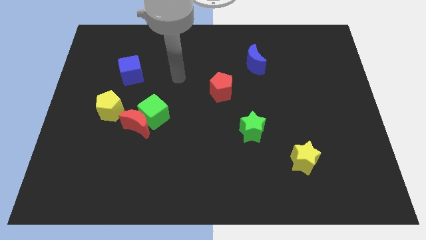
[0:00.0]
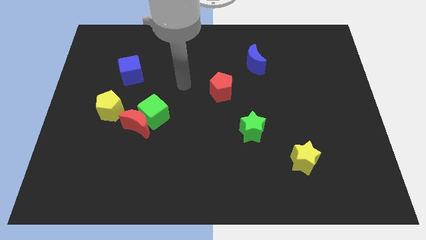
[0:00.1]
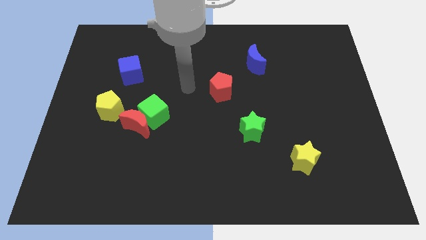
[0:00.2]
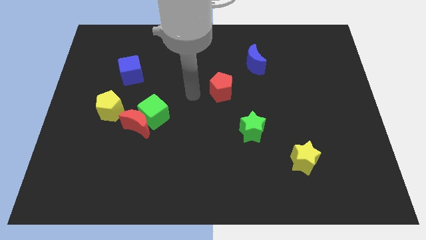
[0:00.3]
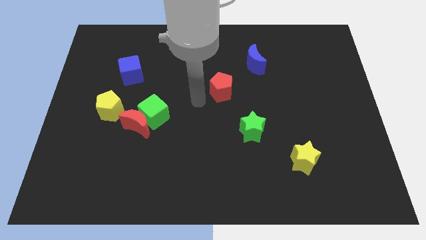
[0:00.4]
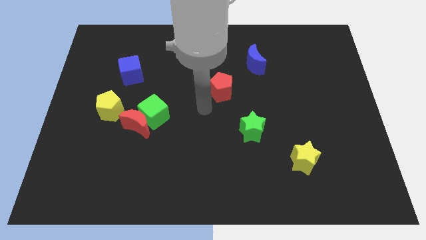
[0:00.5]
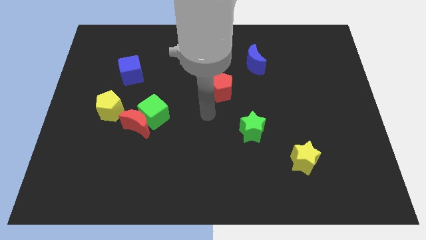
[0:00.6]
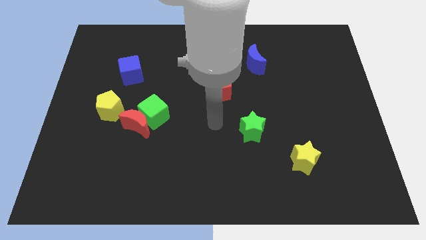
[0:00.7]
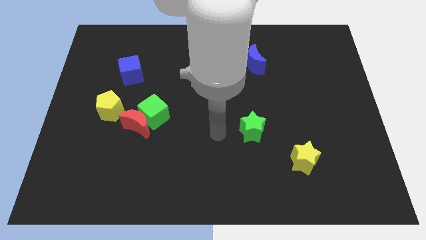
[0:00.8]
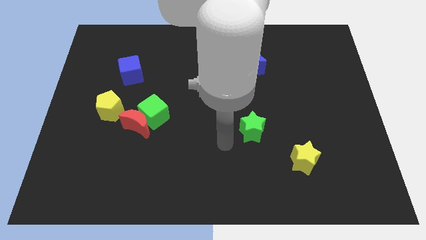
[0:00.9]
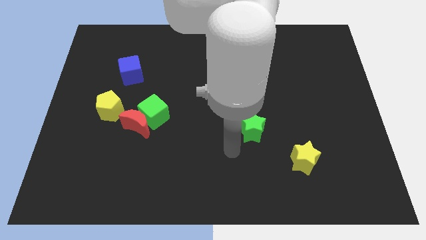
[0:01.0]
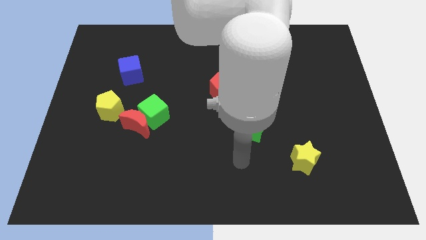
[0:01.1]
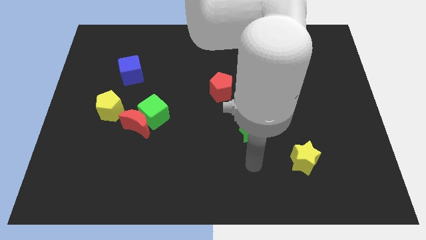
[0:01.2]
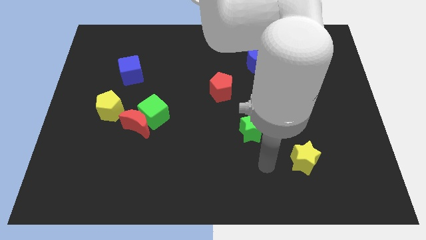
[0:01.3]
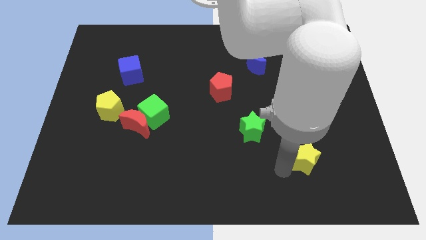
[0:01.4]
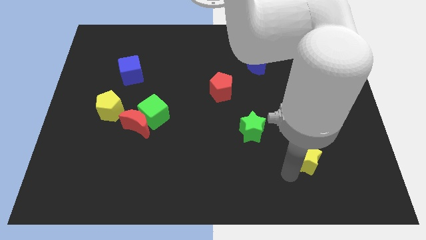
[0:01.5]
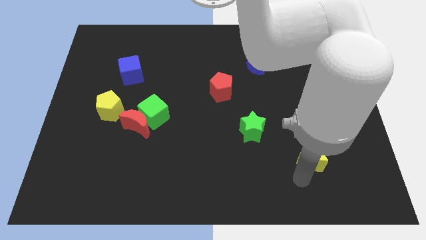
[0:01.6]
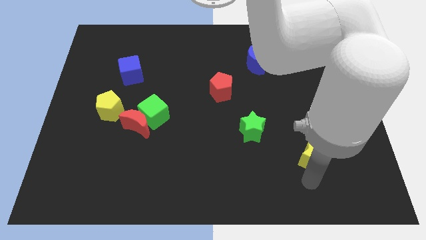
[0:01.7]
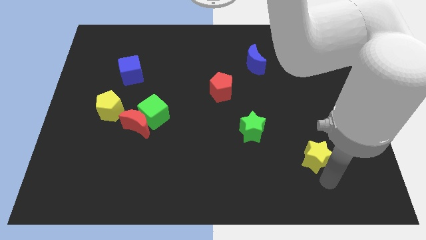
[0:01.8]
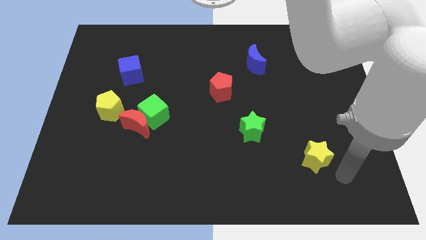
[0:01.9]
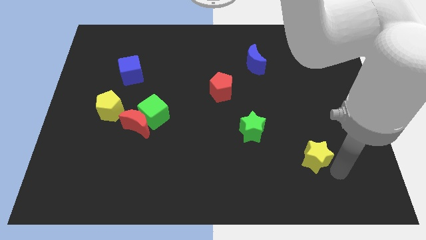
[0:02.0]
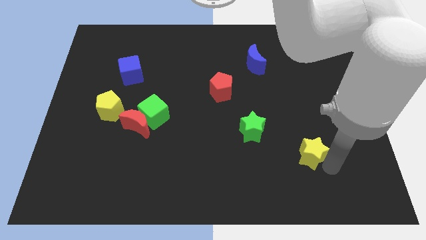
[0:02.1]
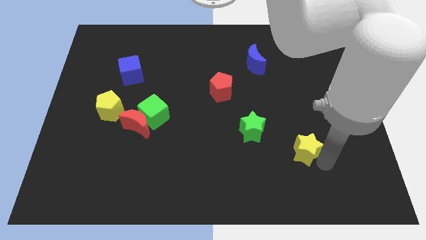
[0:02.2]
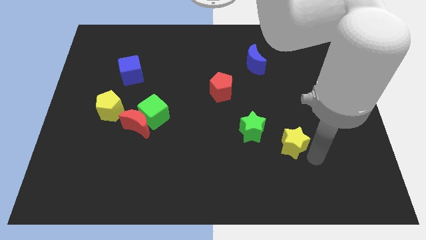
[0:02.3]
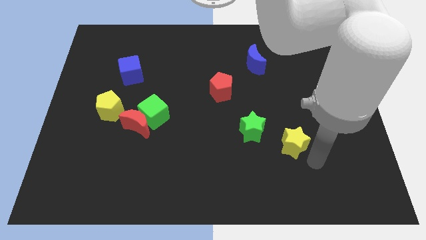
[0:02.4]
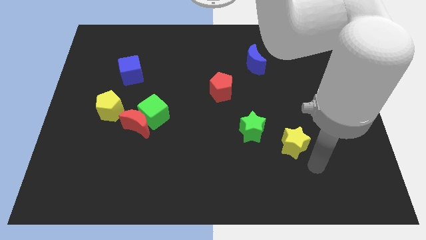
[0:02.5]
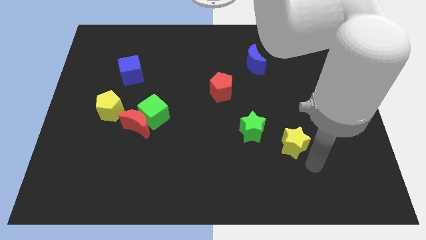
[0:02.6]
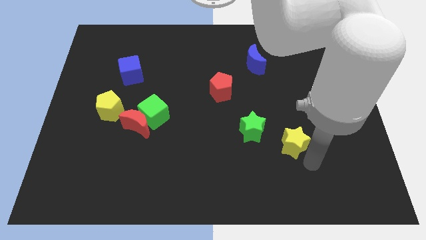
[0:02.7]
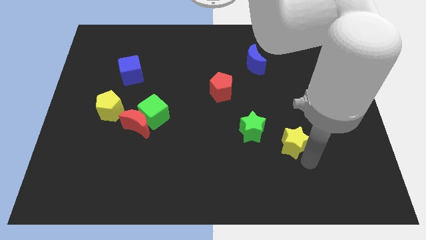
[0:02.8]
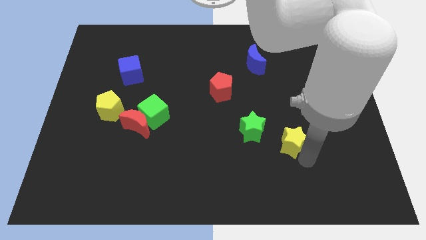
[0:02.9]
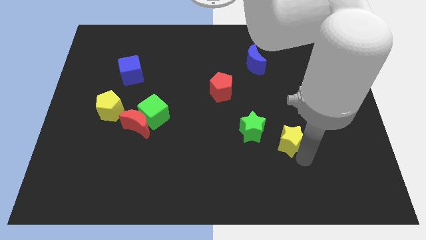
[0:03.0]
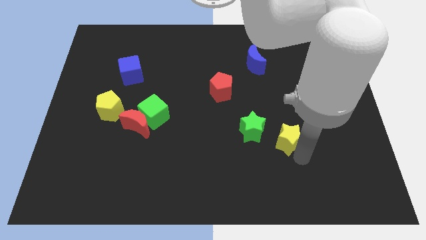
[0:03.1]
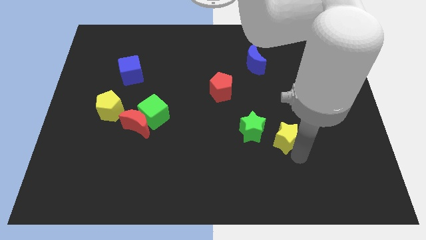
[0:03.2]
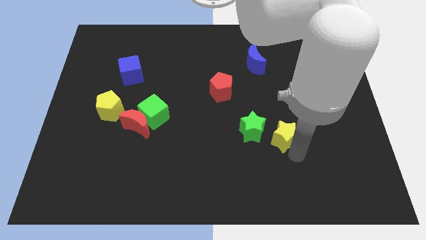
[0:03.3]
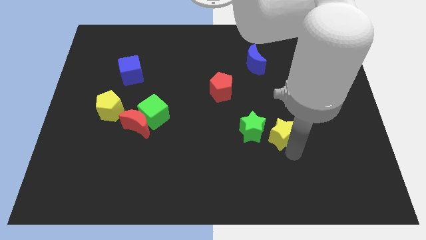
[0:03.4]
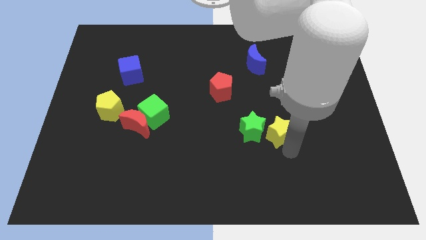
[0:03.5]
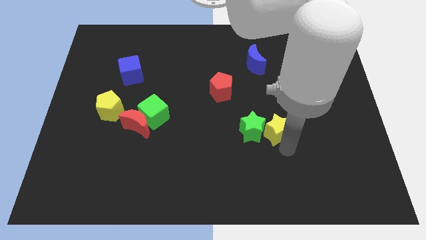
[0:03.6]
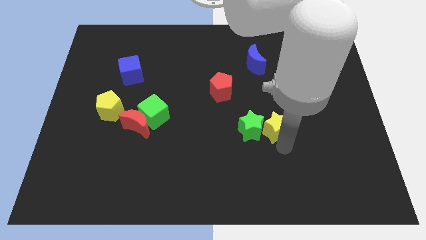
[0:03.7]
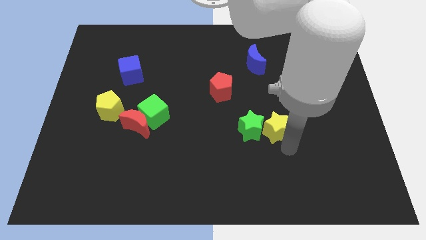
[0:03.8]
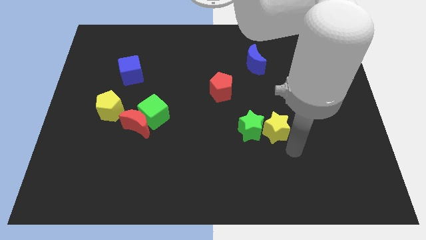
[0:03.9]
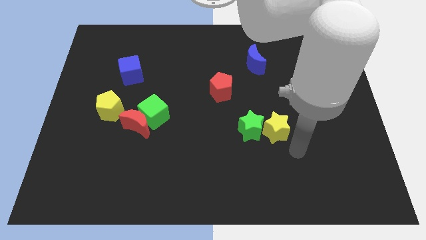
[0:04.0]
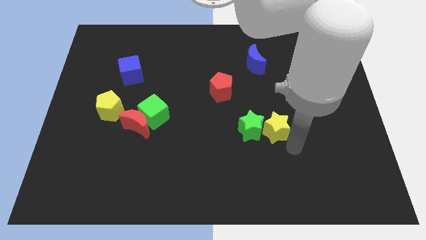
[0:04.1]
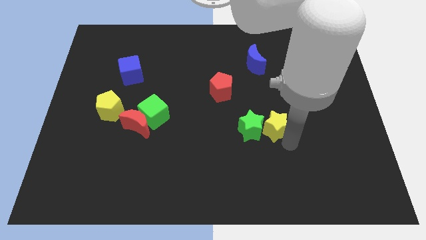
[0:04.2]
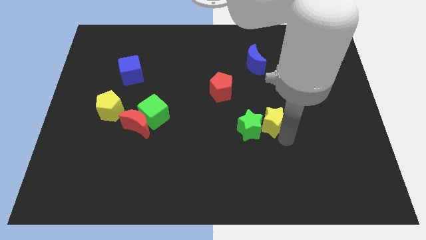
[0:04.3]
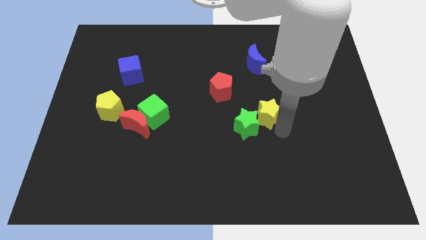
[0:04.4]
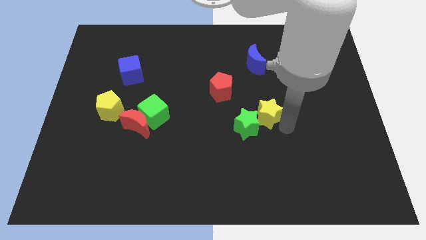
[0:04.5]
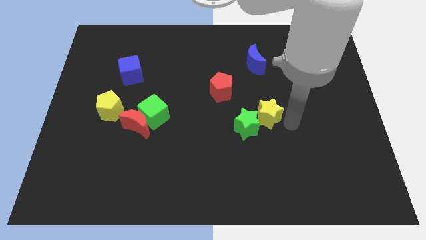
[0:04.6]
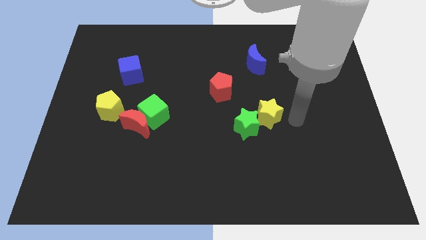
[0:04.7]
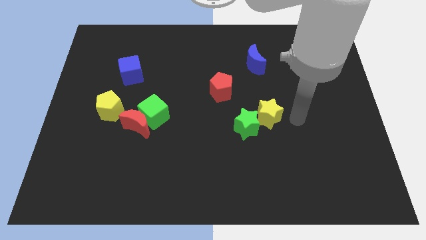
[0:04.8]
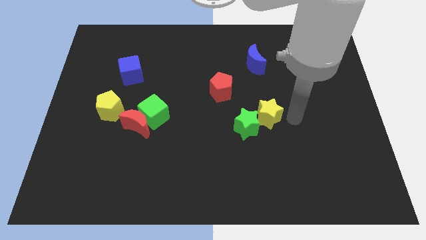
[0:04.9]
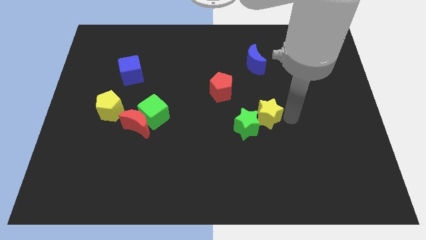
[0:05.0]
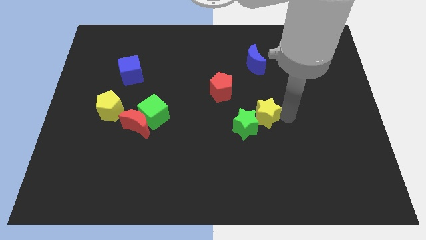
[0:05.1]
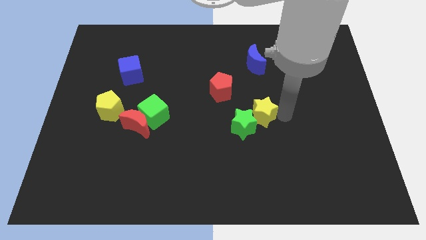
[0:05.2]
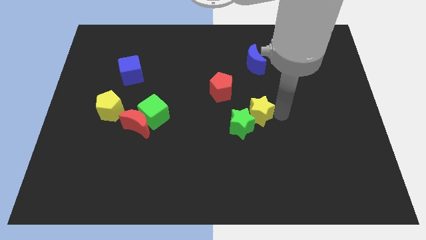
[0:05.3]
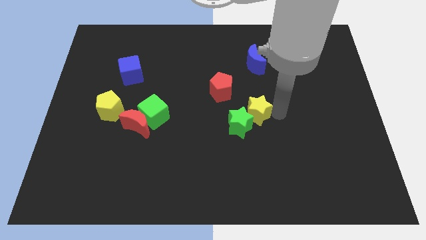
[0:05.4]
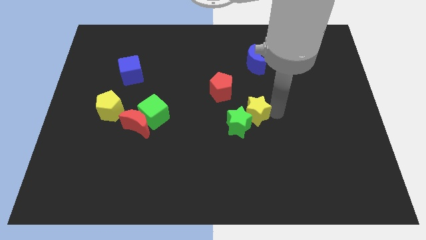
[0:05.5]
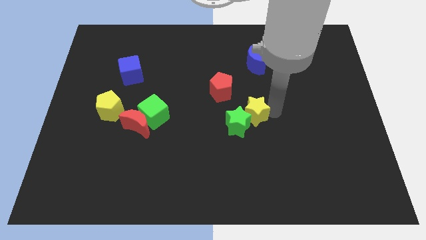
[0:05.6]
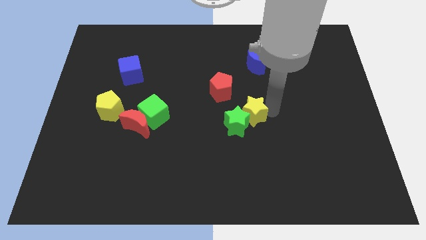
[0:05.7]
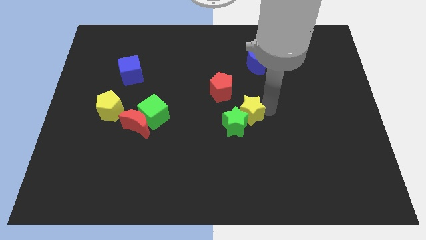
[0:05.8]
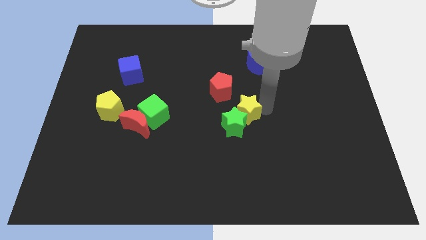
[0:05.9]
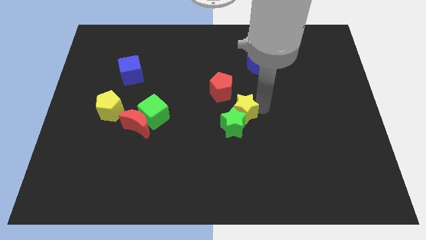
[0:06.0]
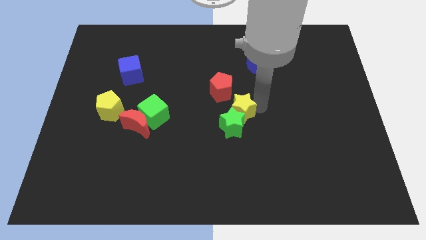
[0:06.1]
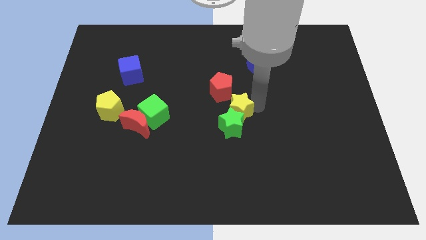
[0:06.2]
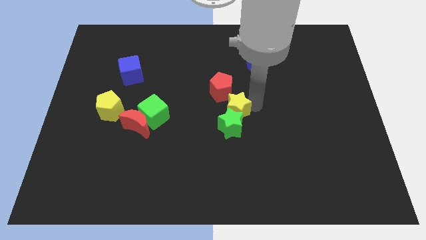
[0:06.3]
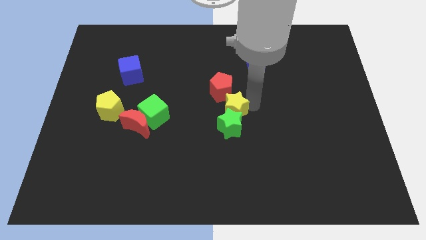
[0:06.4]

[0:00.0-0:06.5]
move the yellow star up and left

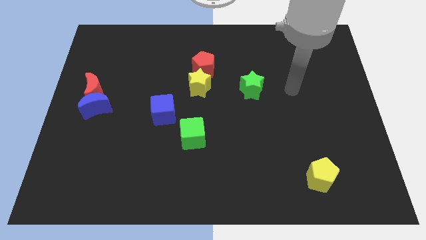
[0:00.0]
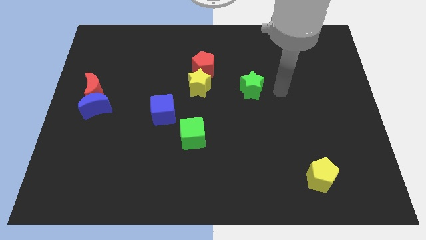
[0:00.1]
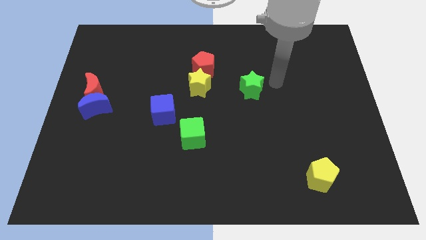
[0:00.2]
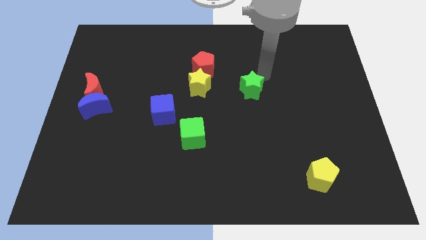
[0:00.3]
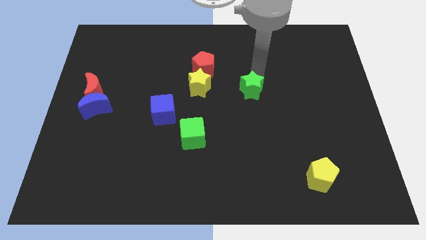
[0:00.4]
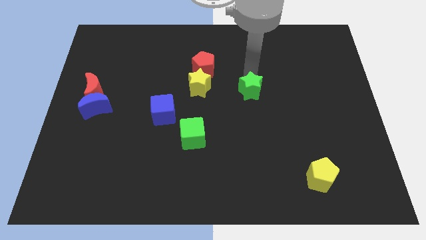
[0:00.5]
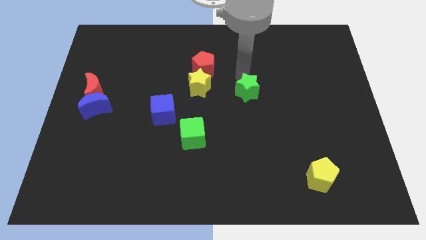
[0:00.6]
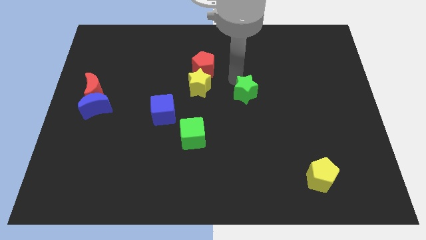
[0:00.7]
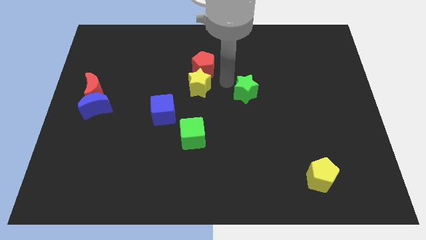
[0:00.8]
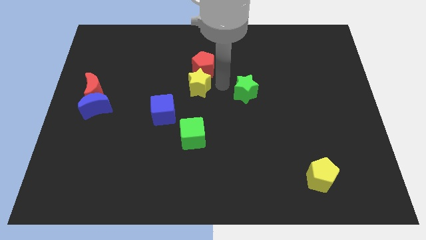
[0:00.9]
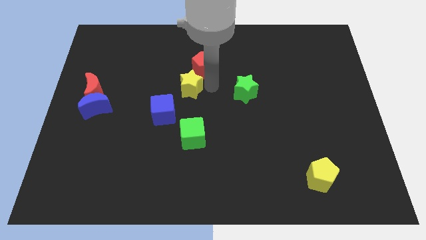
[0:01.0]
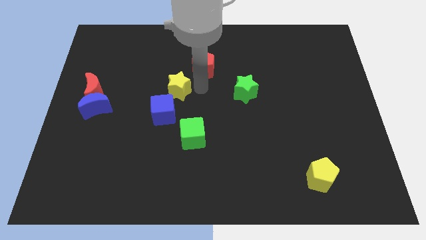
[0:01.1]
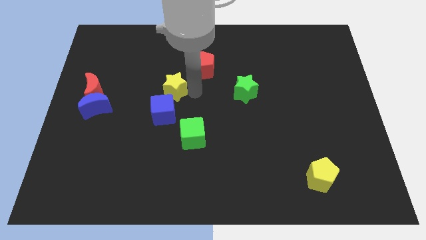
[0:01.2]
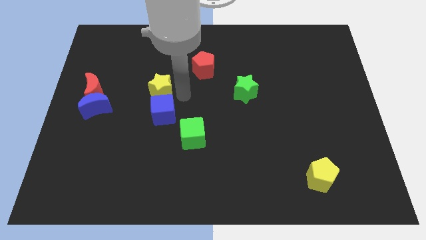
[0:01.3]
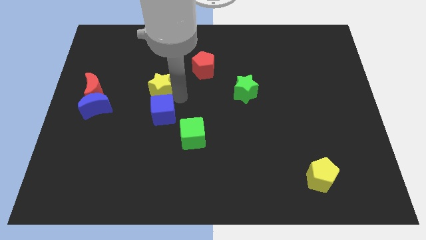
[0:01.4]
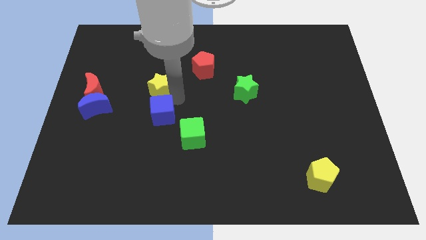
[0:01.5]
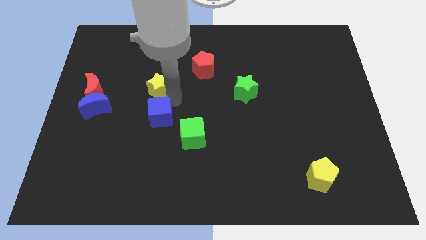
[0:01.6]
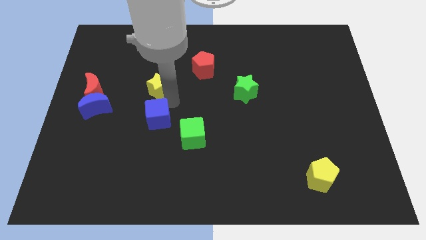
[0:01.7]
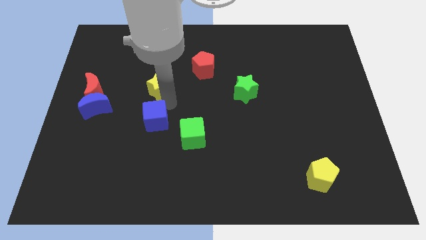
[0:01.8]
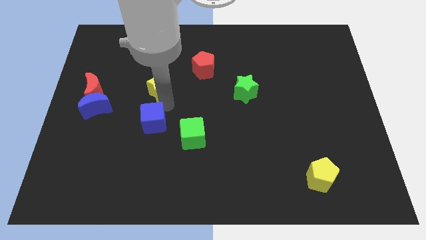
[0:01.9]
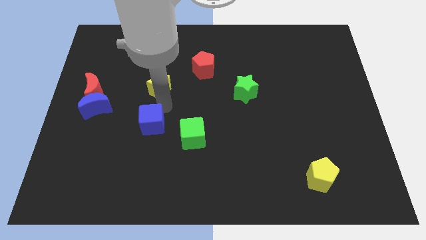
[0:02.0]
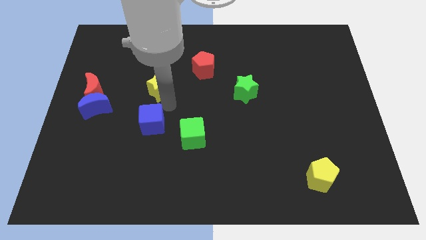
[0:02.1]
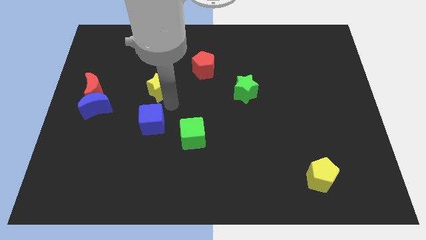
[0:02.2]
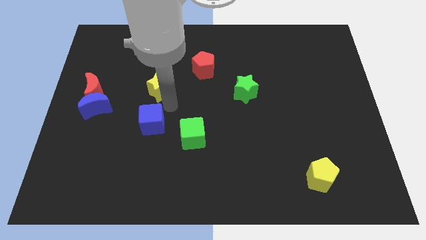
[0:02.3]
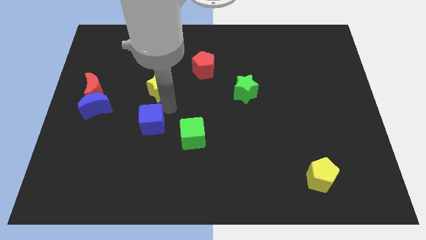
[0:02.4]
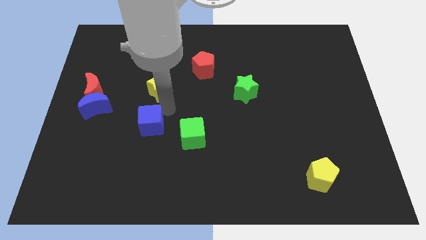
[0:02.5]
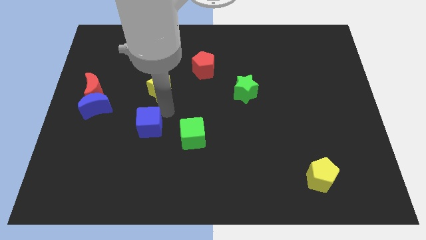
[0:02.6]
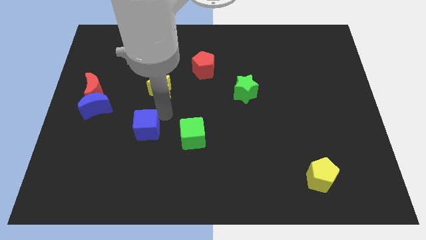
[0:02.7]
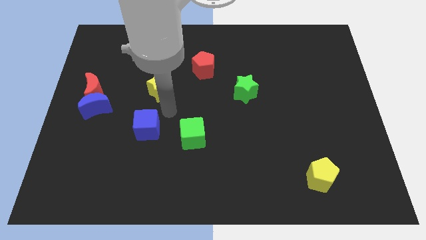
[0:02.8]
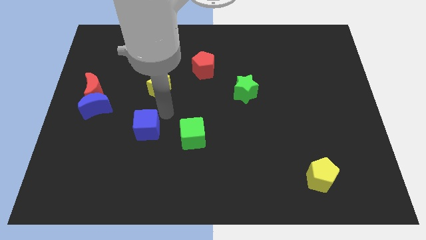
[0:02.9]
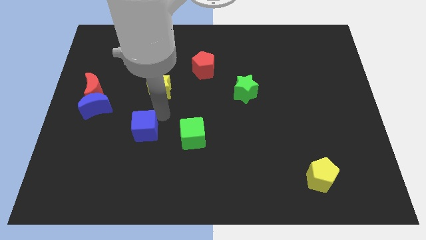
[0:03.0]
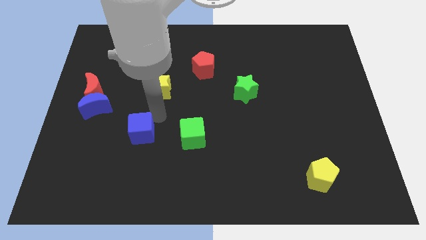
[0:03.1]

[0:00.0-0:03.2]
push the blue cube a little down and left
